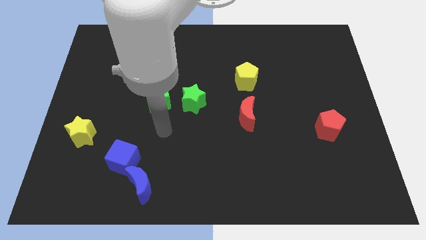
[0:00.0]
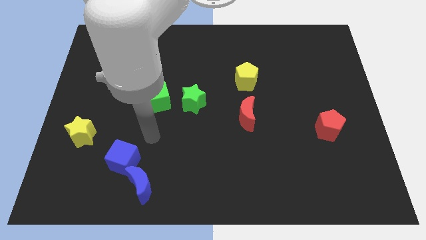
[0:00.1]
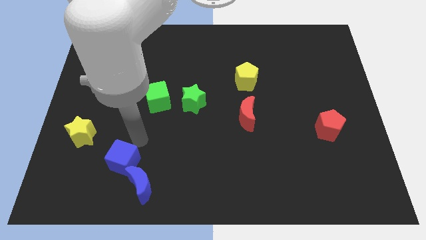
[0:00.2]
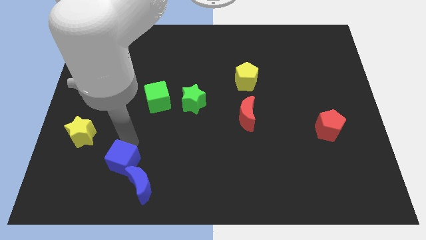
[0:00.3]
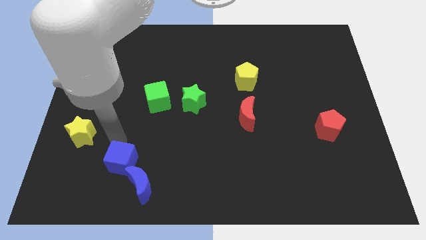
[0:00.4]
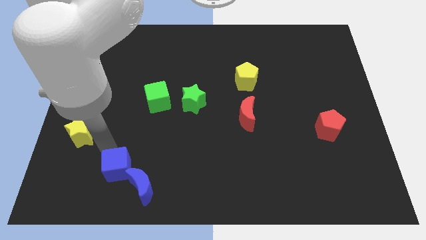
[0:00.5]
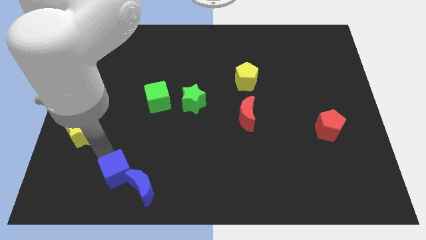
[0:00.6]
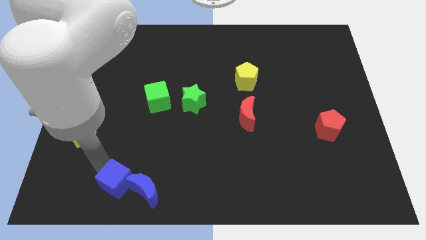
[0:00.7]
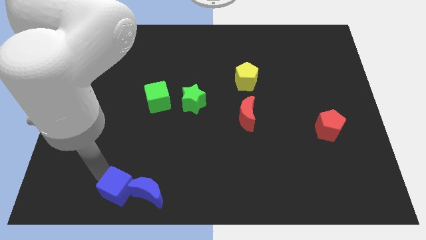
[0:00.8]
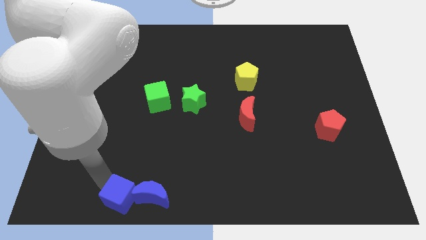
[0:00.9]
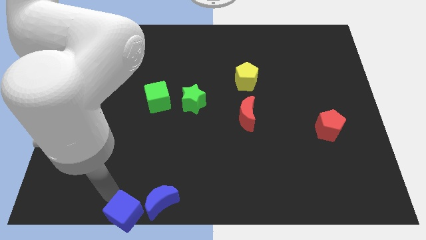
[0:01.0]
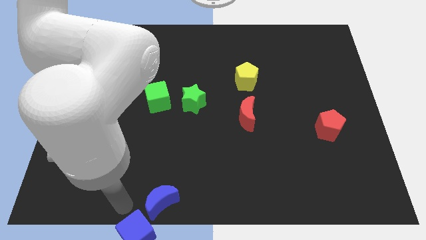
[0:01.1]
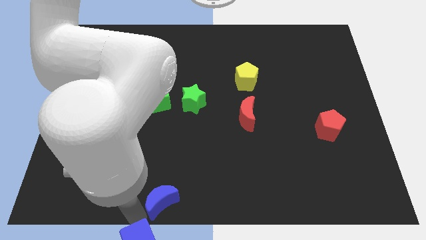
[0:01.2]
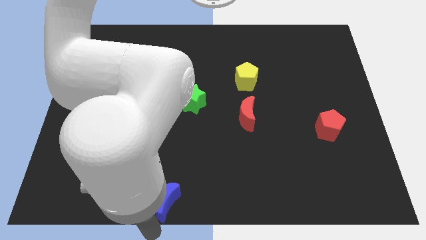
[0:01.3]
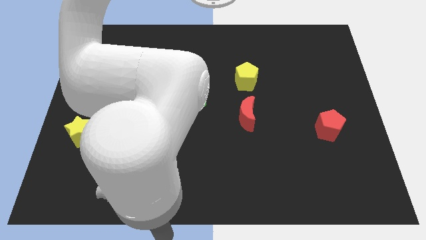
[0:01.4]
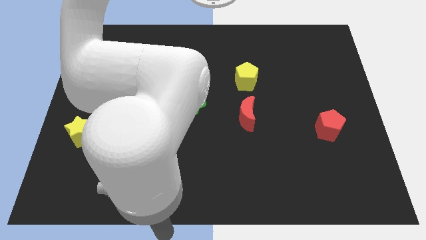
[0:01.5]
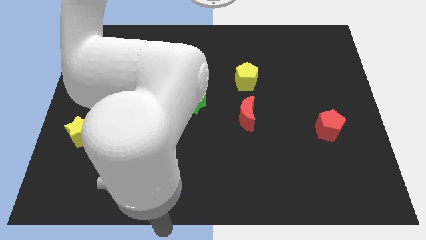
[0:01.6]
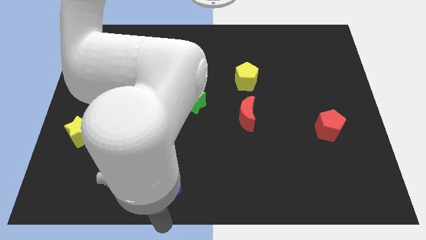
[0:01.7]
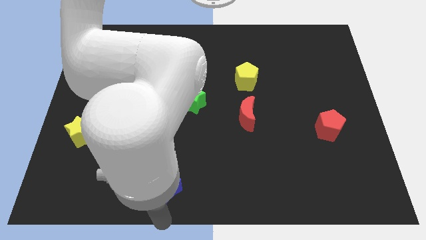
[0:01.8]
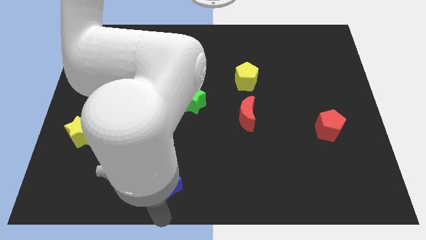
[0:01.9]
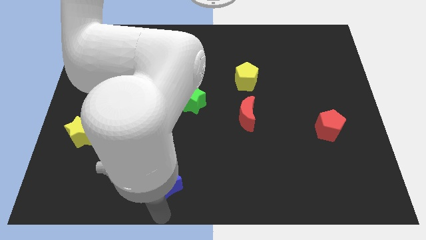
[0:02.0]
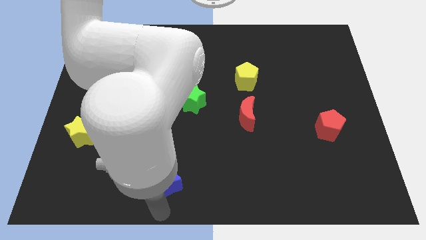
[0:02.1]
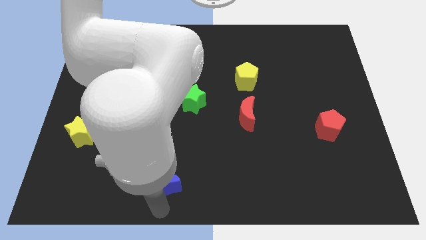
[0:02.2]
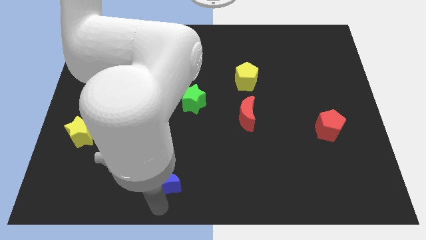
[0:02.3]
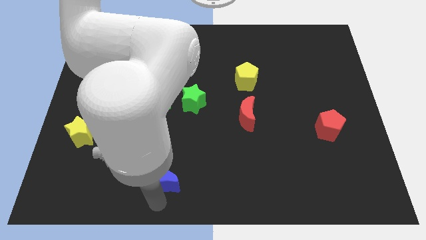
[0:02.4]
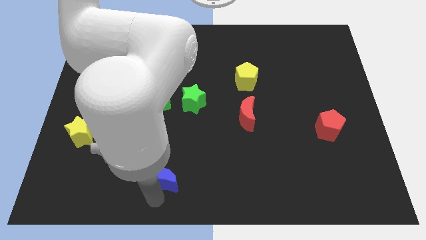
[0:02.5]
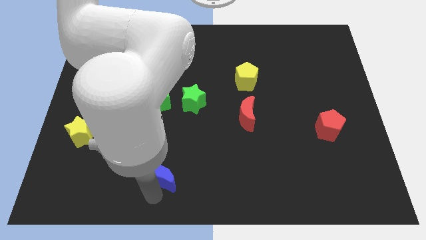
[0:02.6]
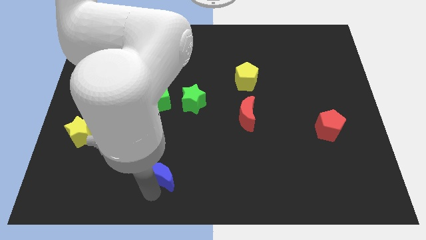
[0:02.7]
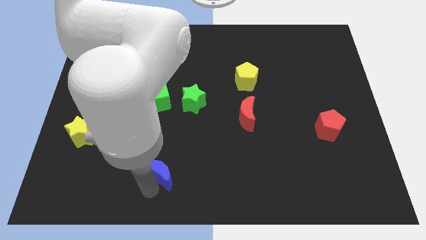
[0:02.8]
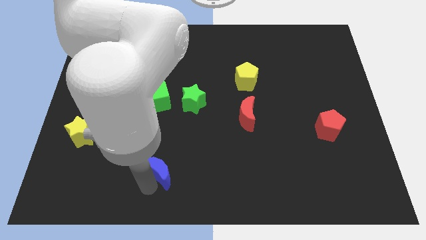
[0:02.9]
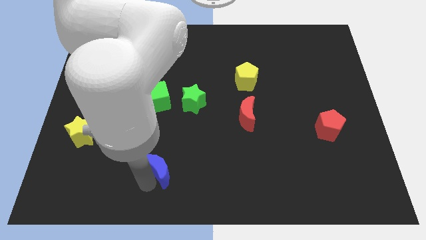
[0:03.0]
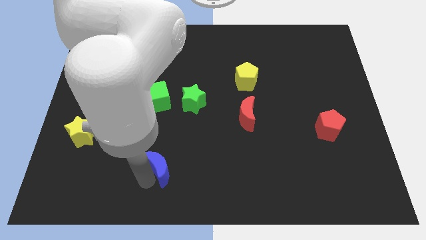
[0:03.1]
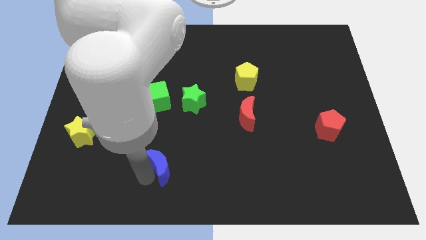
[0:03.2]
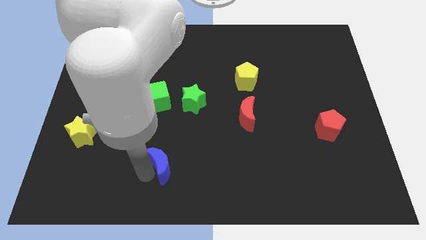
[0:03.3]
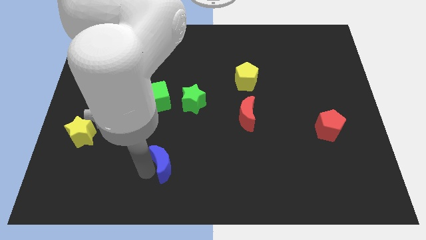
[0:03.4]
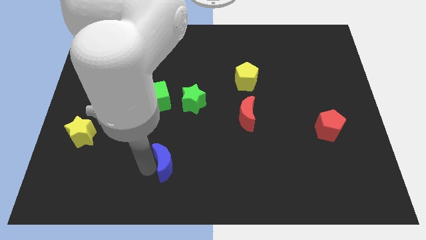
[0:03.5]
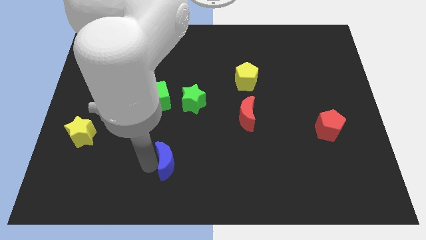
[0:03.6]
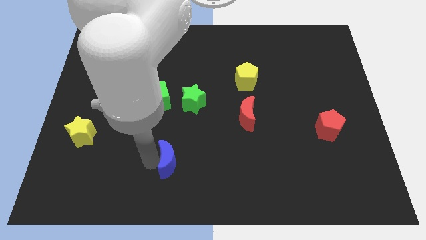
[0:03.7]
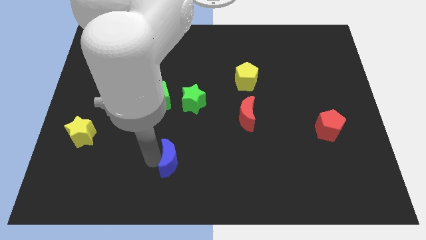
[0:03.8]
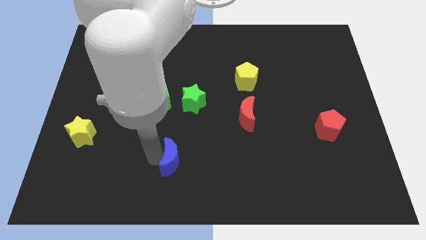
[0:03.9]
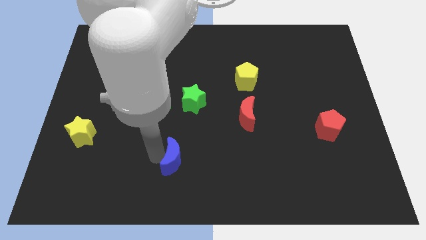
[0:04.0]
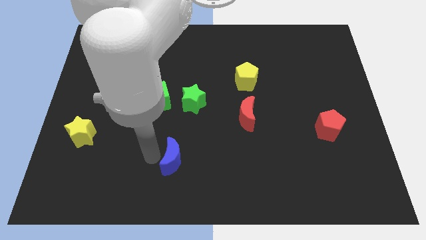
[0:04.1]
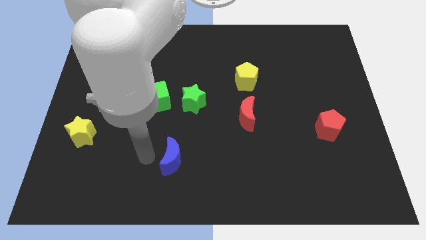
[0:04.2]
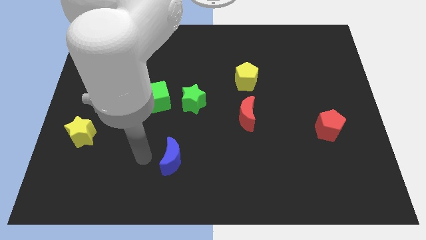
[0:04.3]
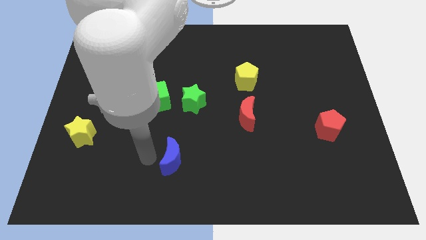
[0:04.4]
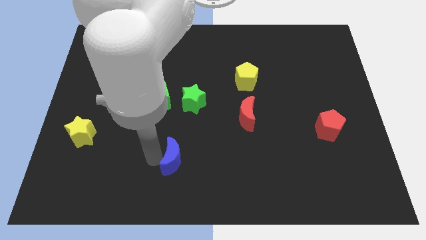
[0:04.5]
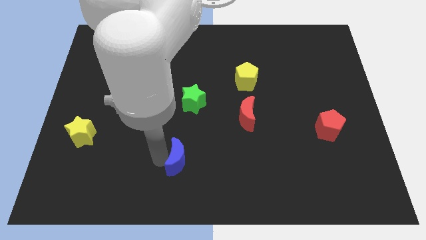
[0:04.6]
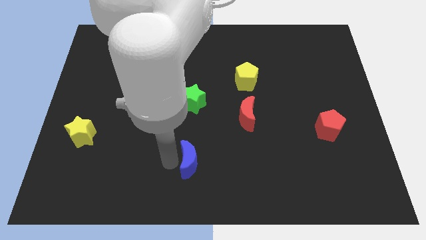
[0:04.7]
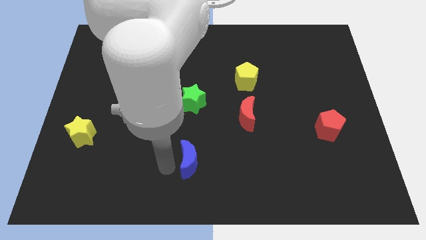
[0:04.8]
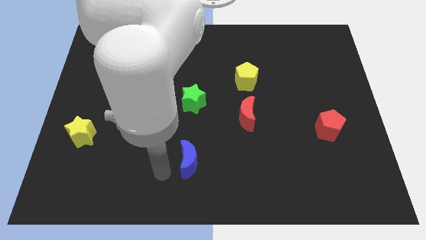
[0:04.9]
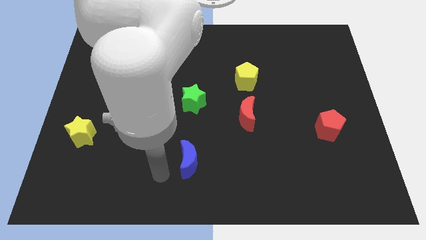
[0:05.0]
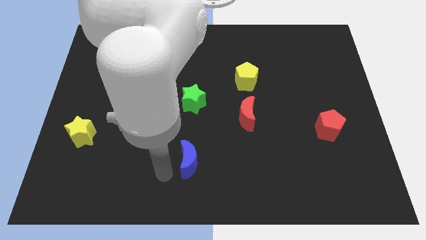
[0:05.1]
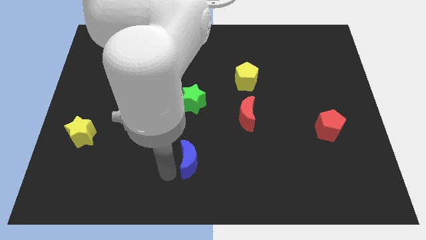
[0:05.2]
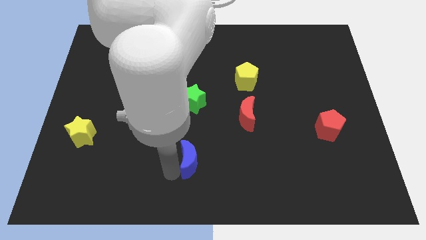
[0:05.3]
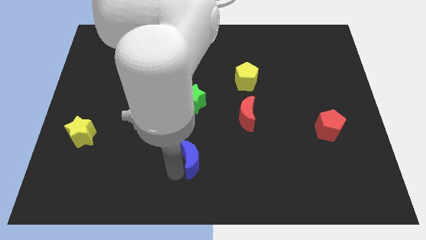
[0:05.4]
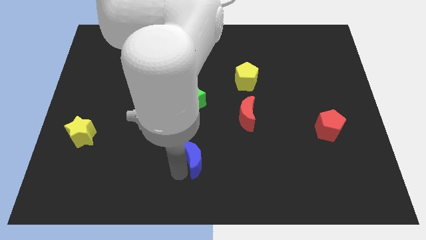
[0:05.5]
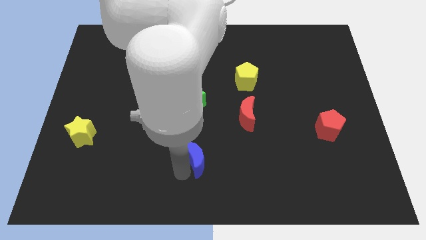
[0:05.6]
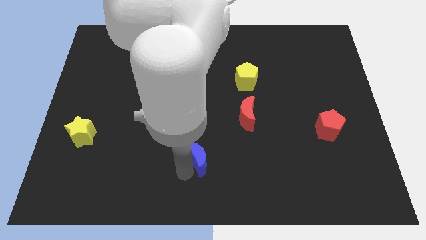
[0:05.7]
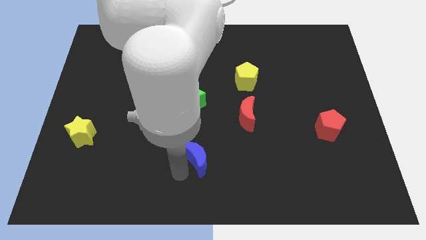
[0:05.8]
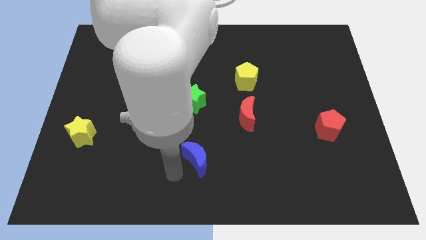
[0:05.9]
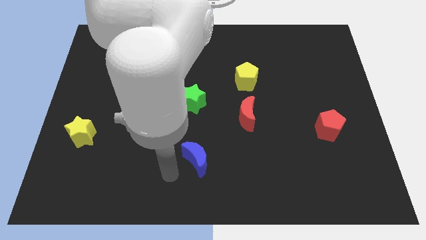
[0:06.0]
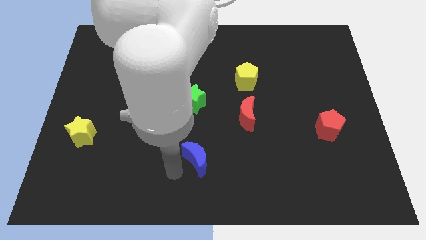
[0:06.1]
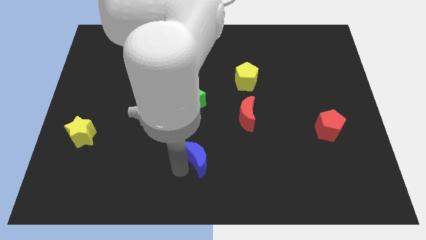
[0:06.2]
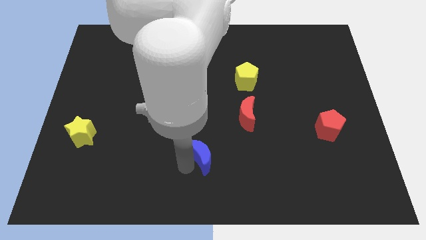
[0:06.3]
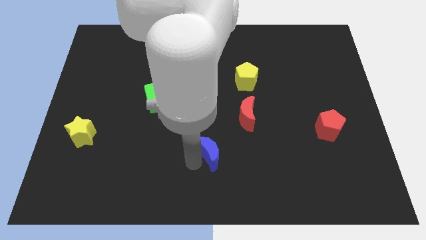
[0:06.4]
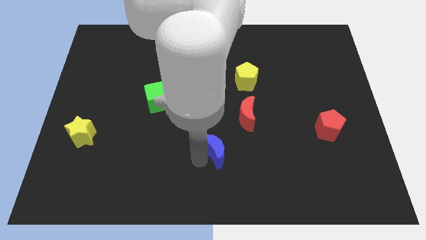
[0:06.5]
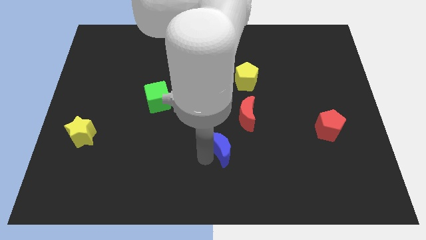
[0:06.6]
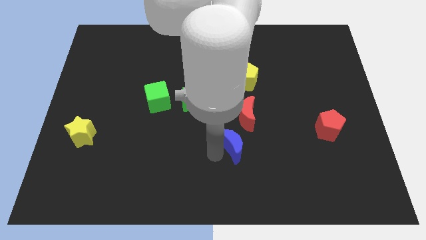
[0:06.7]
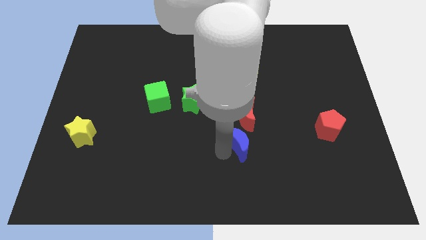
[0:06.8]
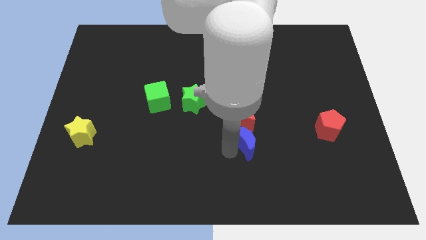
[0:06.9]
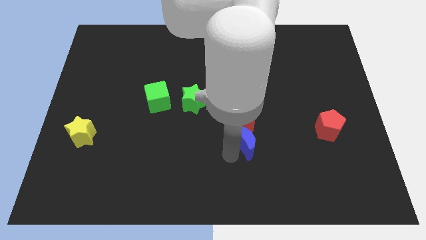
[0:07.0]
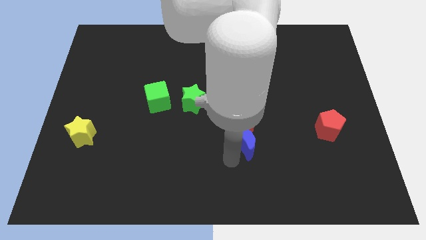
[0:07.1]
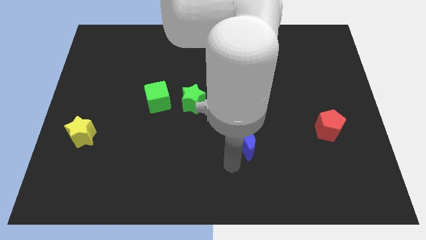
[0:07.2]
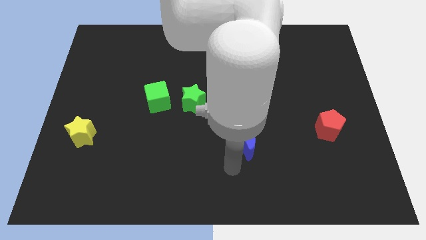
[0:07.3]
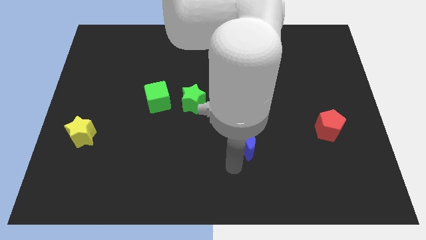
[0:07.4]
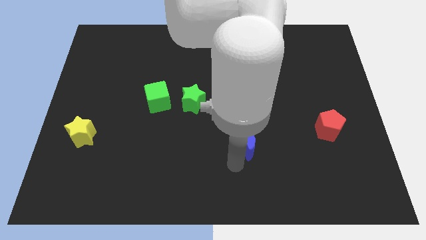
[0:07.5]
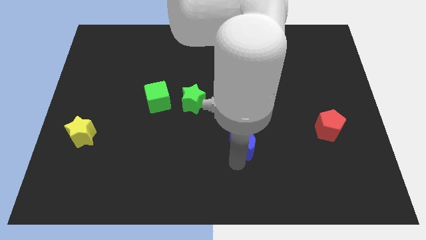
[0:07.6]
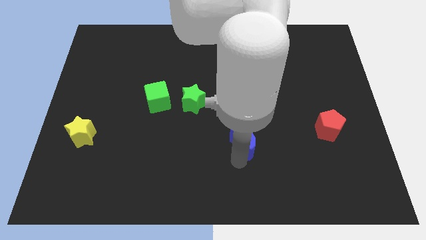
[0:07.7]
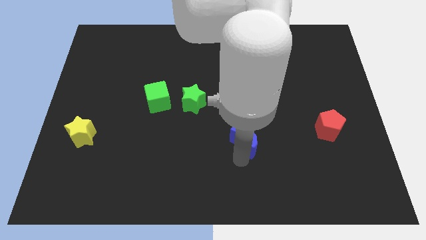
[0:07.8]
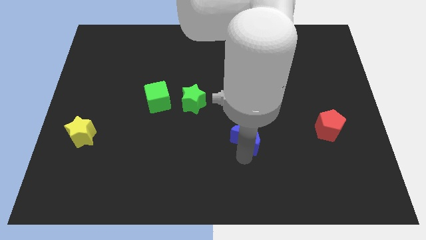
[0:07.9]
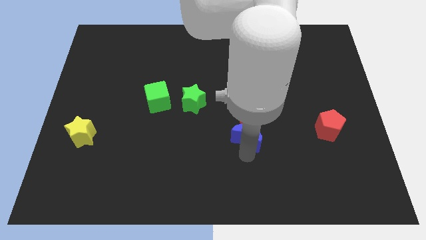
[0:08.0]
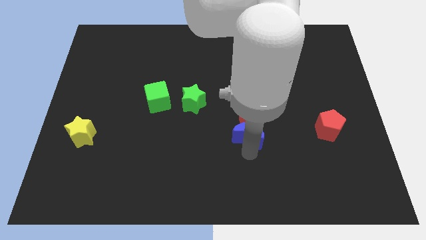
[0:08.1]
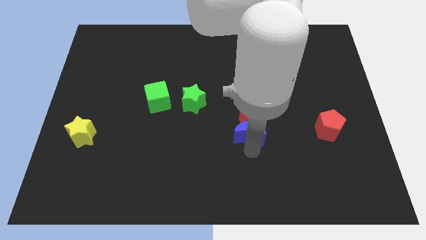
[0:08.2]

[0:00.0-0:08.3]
move the blue moon below the yellow pentagon
